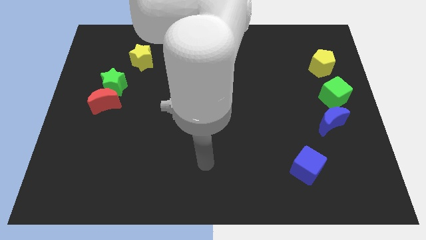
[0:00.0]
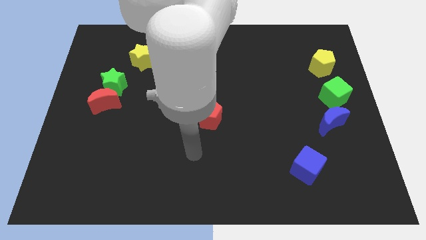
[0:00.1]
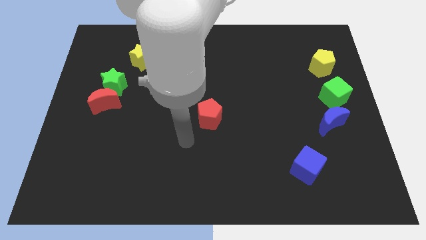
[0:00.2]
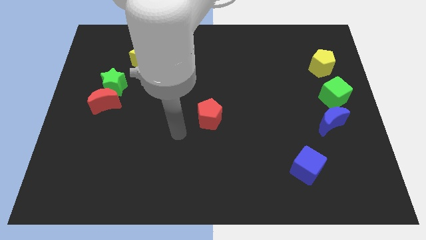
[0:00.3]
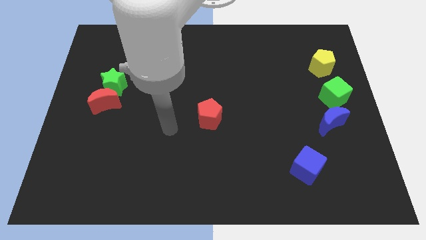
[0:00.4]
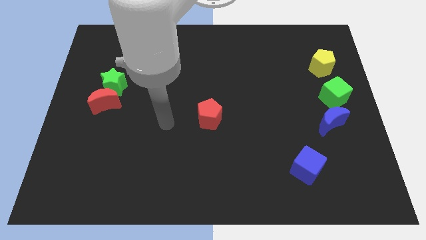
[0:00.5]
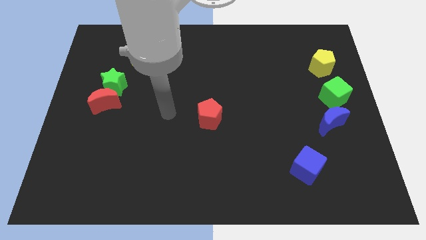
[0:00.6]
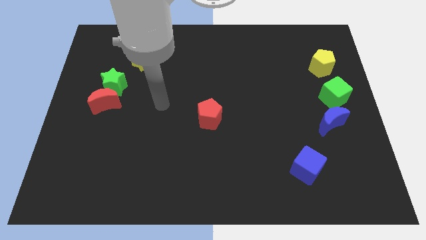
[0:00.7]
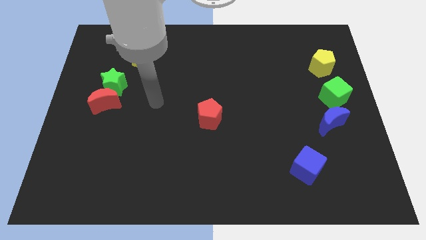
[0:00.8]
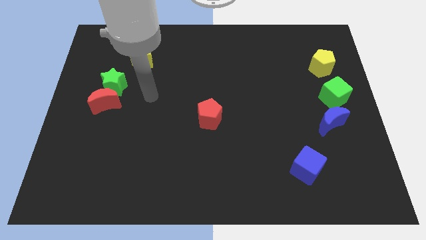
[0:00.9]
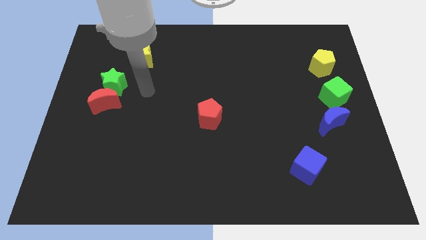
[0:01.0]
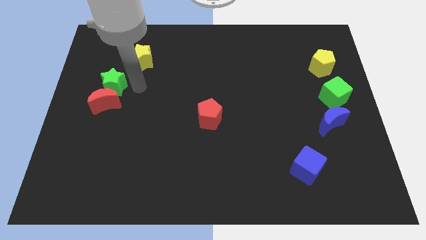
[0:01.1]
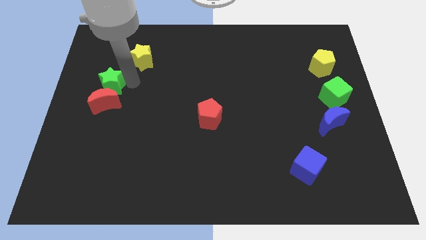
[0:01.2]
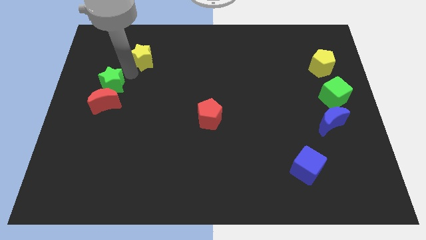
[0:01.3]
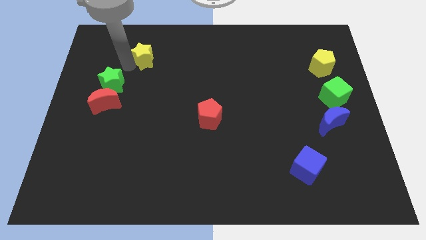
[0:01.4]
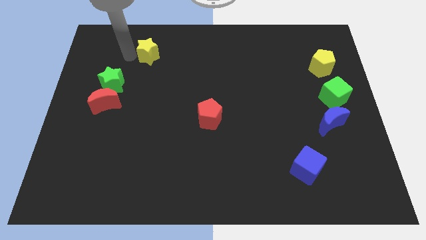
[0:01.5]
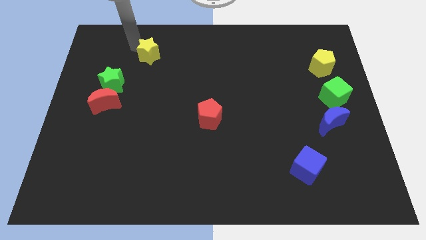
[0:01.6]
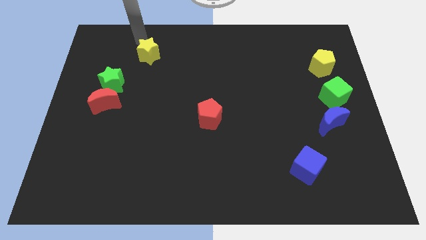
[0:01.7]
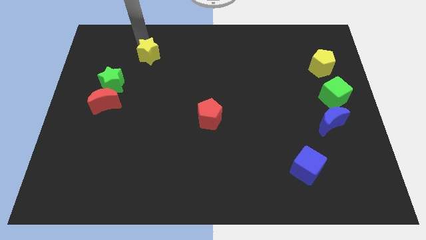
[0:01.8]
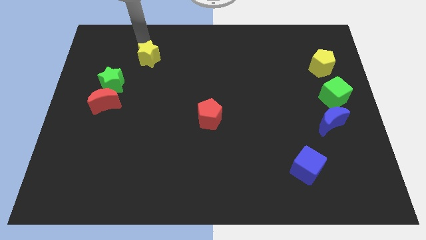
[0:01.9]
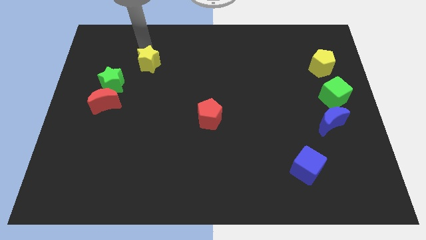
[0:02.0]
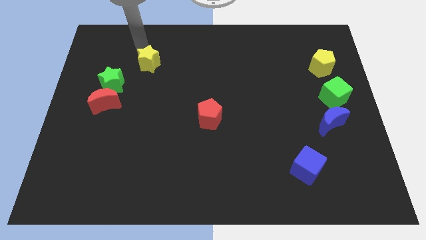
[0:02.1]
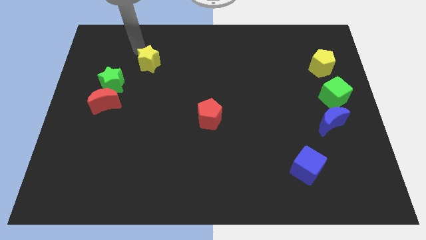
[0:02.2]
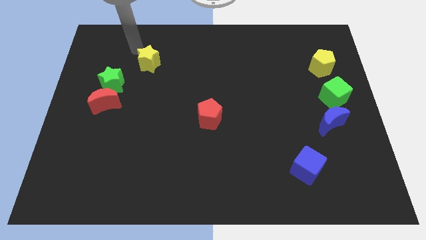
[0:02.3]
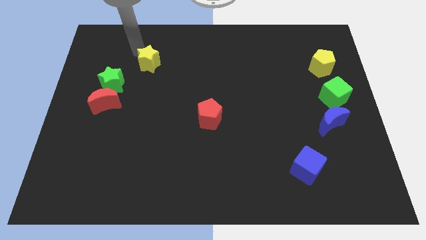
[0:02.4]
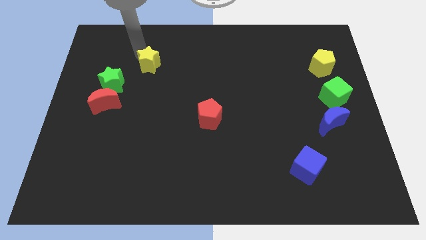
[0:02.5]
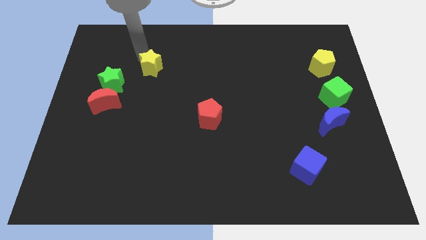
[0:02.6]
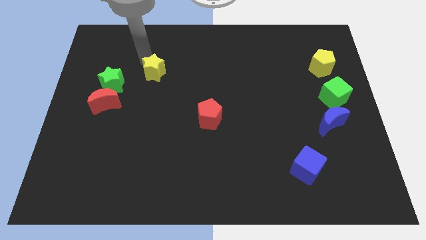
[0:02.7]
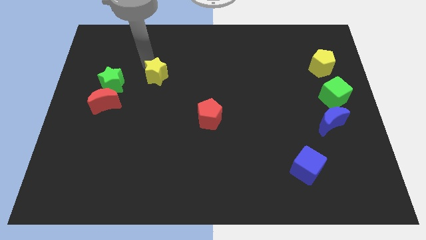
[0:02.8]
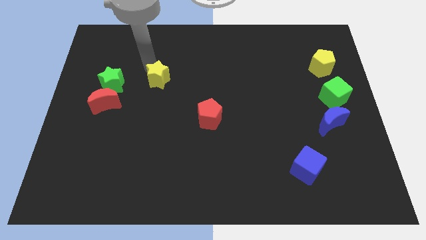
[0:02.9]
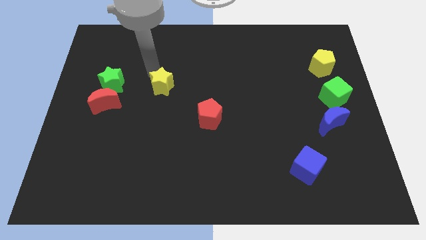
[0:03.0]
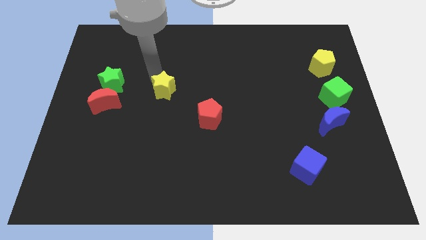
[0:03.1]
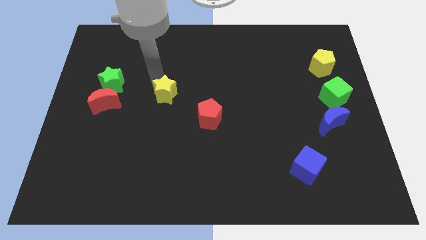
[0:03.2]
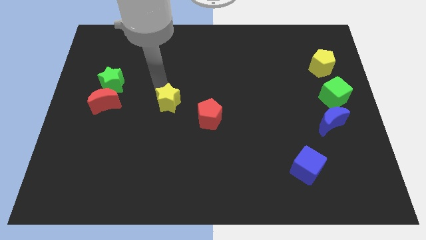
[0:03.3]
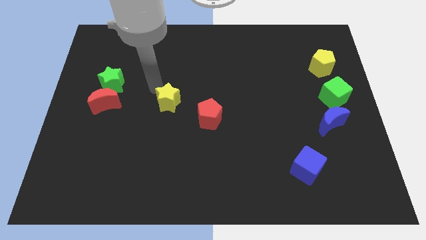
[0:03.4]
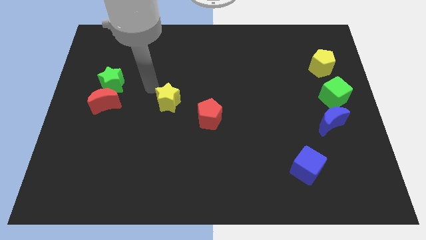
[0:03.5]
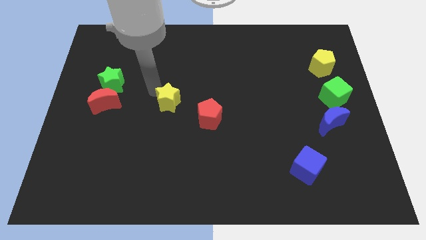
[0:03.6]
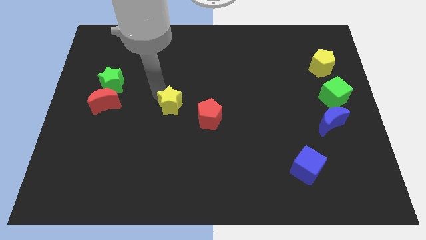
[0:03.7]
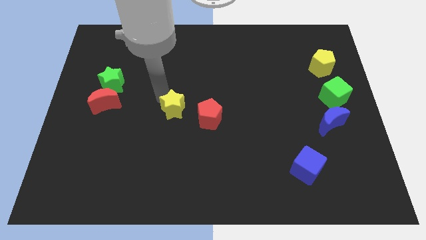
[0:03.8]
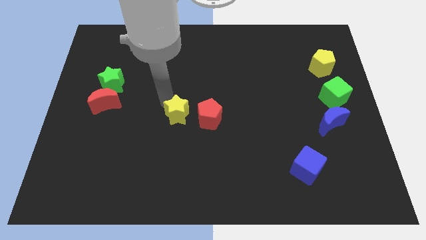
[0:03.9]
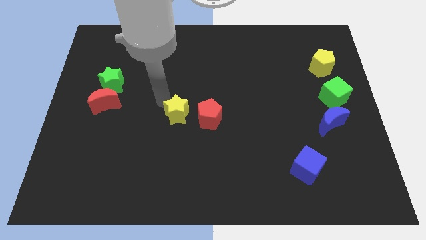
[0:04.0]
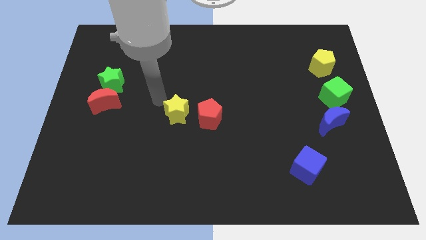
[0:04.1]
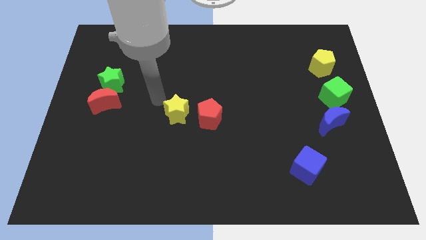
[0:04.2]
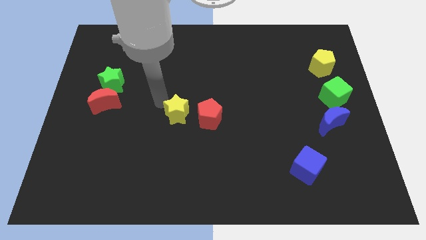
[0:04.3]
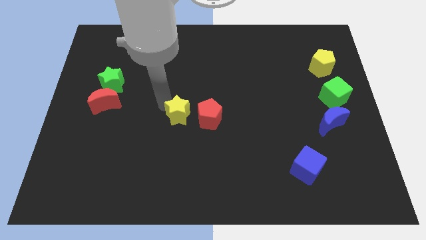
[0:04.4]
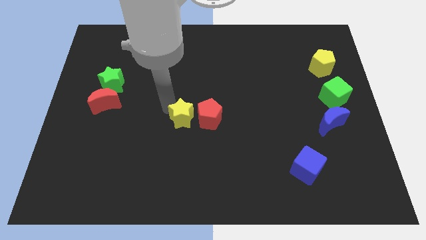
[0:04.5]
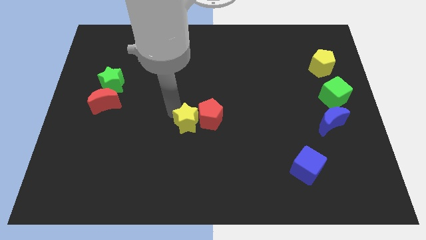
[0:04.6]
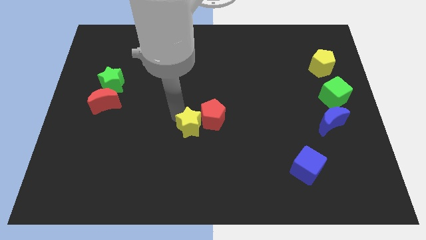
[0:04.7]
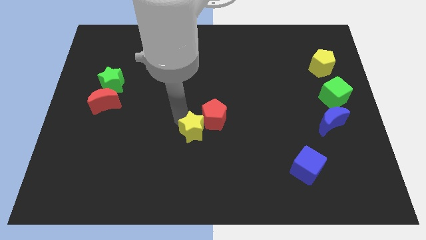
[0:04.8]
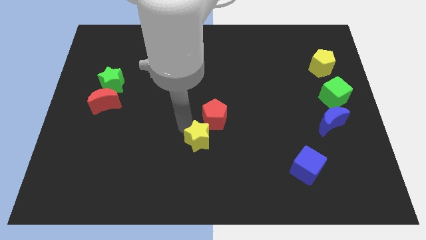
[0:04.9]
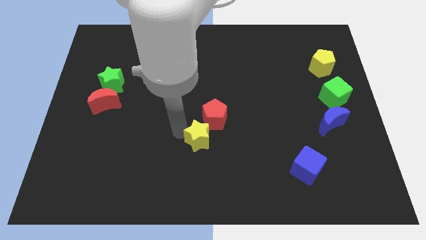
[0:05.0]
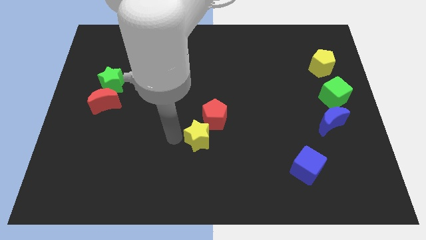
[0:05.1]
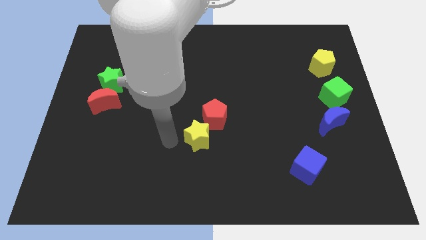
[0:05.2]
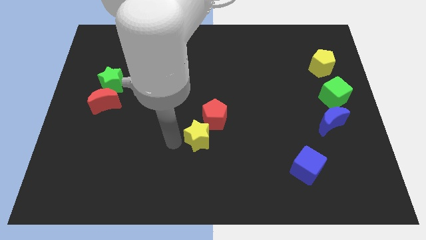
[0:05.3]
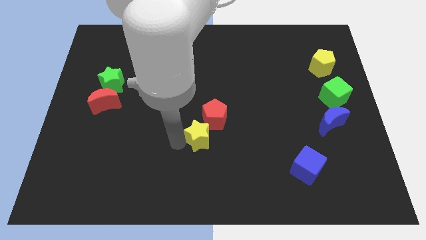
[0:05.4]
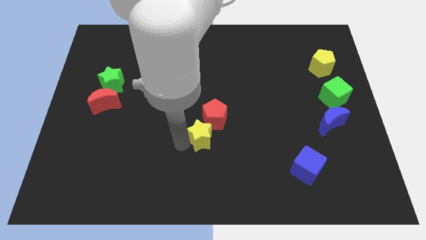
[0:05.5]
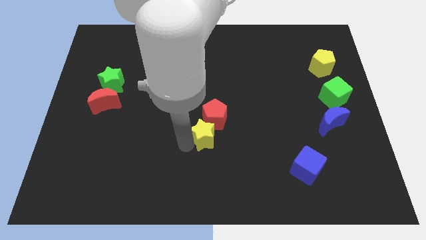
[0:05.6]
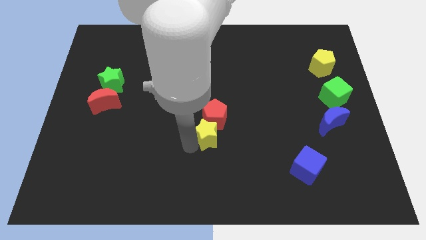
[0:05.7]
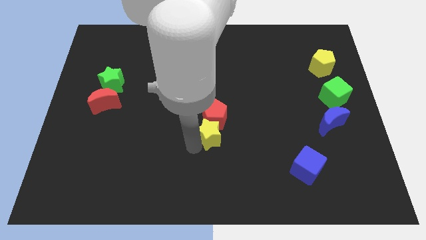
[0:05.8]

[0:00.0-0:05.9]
move the yellow star diagonally down and to the right of the red pentagon

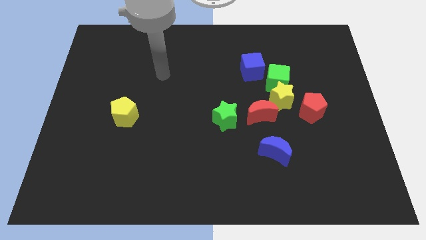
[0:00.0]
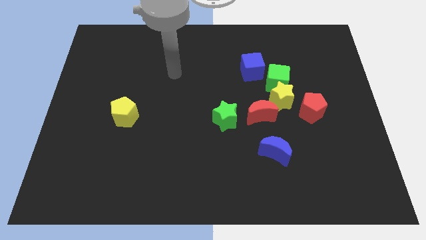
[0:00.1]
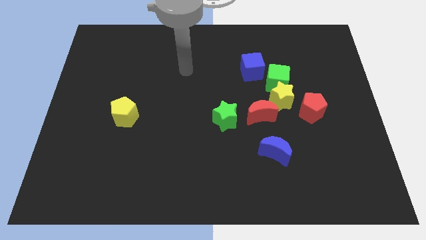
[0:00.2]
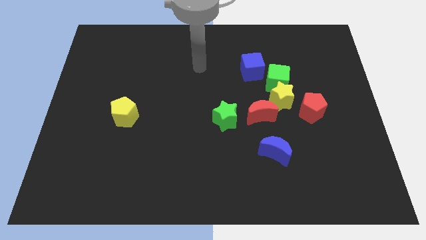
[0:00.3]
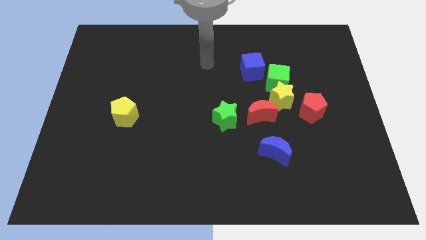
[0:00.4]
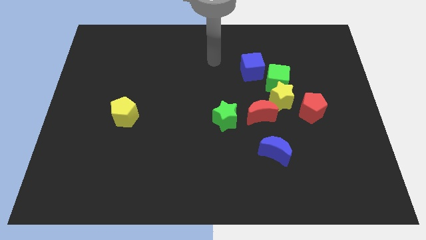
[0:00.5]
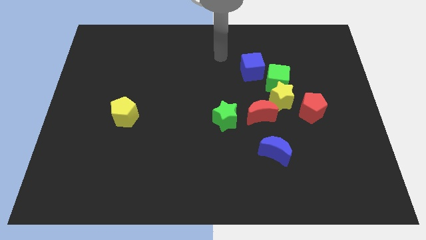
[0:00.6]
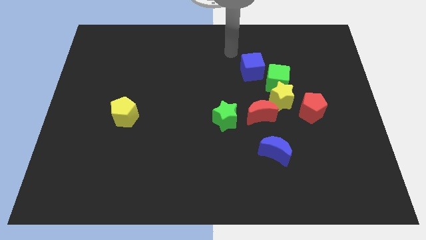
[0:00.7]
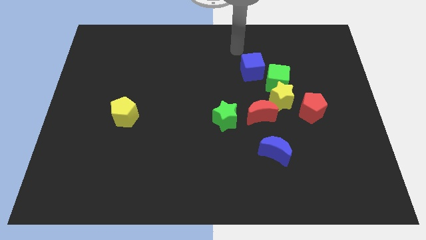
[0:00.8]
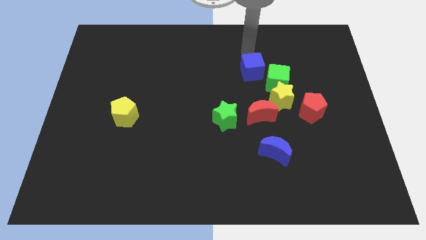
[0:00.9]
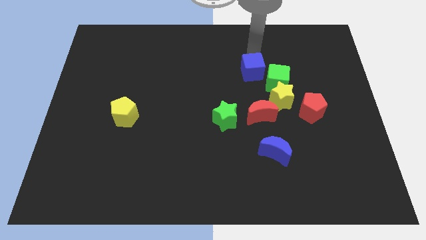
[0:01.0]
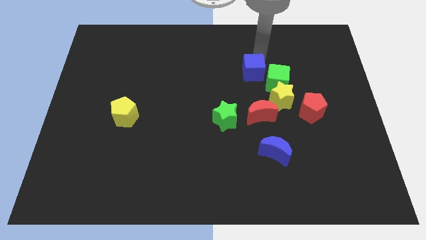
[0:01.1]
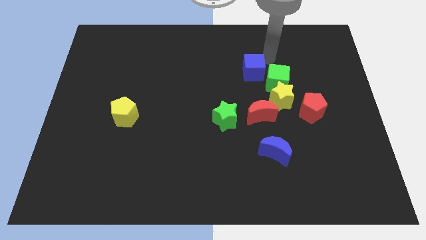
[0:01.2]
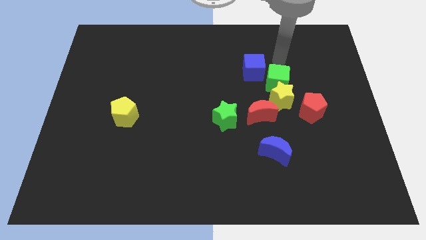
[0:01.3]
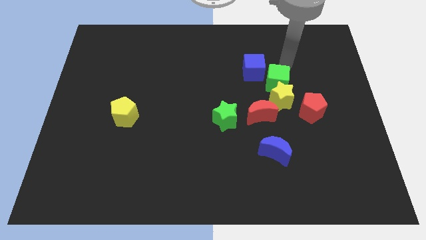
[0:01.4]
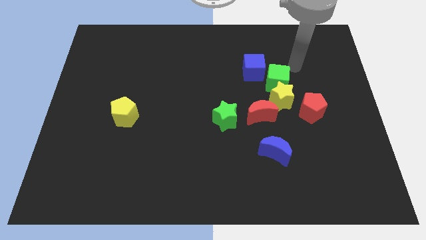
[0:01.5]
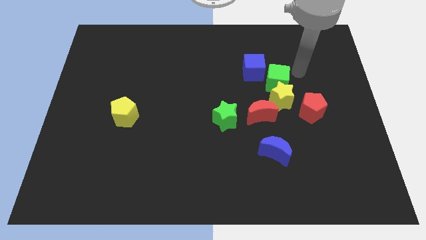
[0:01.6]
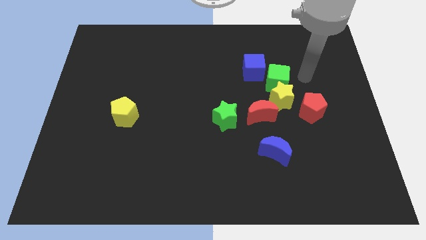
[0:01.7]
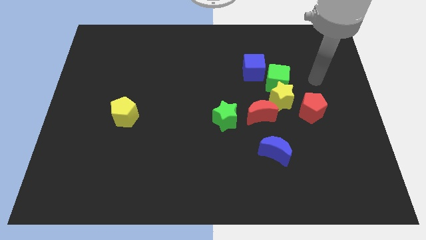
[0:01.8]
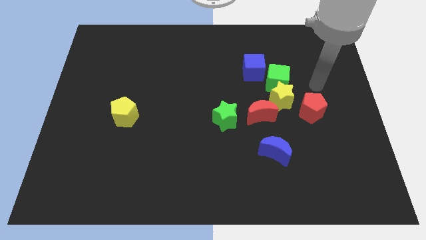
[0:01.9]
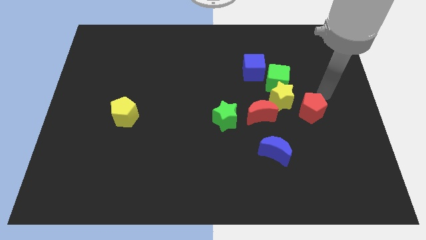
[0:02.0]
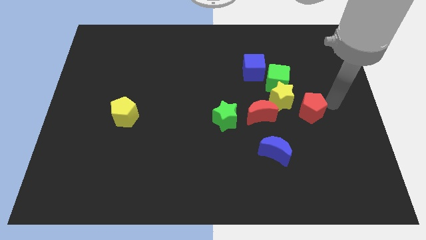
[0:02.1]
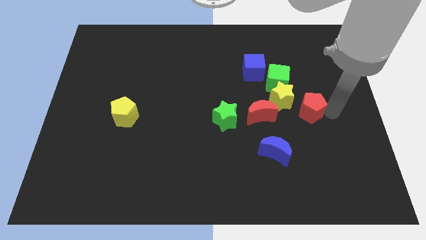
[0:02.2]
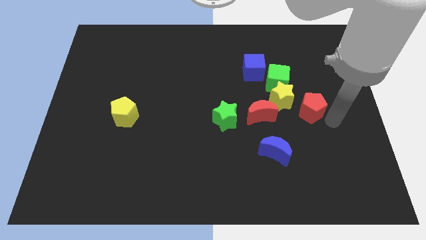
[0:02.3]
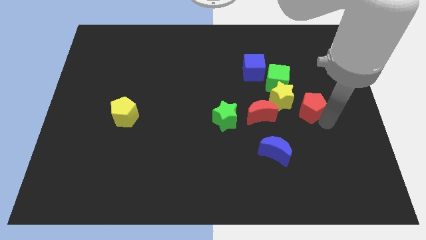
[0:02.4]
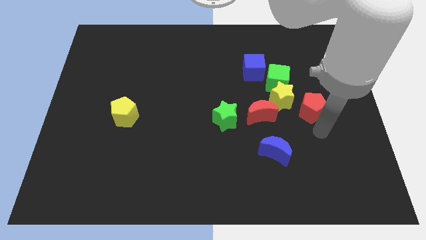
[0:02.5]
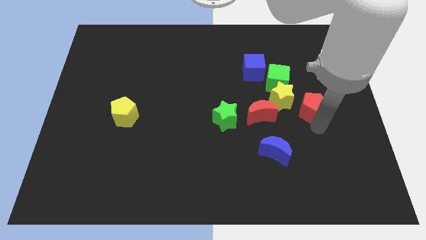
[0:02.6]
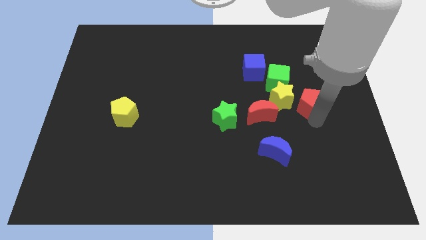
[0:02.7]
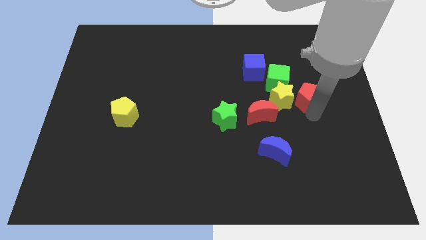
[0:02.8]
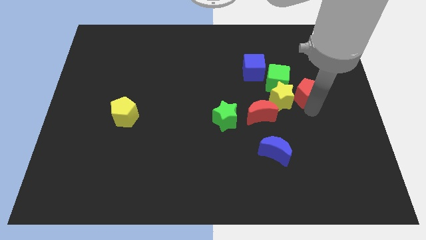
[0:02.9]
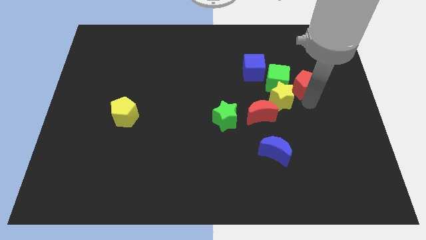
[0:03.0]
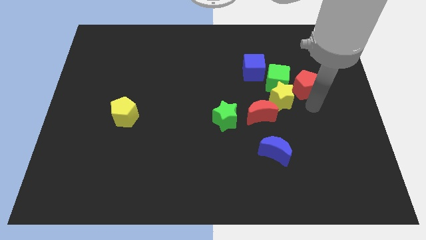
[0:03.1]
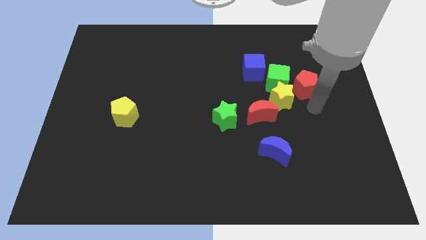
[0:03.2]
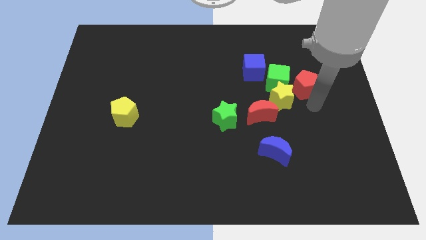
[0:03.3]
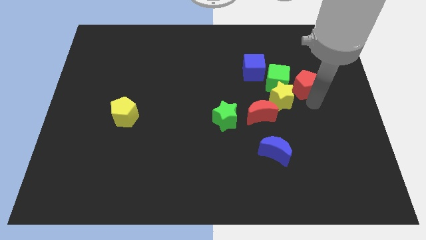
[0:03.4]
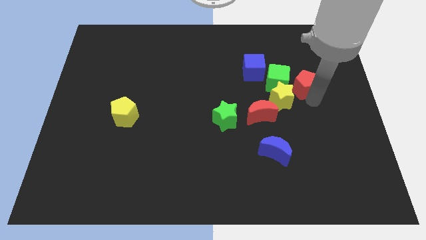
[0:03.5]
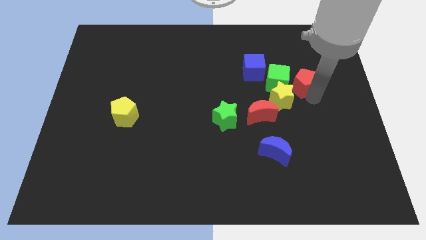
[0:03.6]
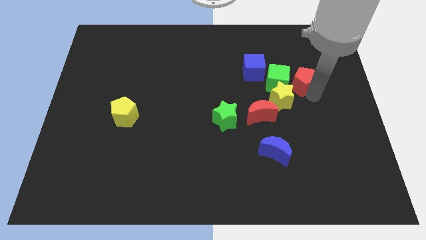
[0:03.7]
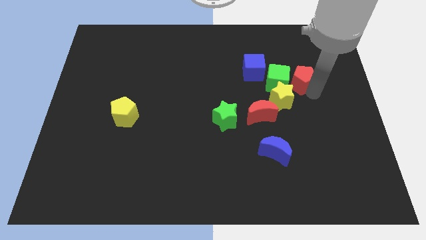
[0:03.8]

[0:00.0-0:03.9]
slide the red pentagon to the top right of the green cube
